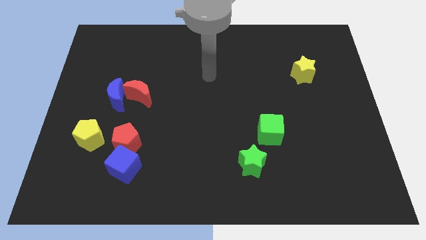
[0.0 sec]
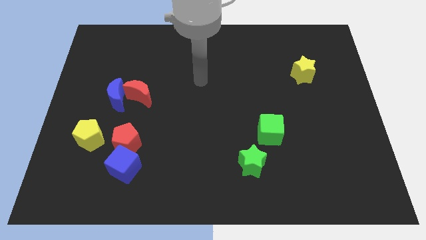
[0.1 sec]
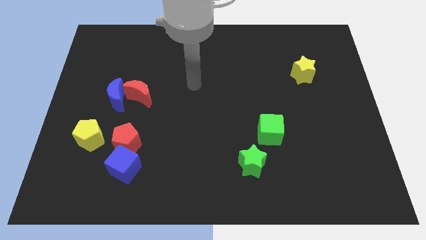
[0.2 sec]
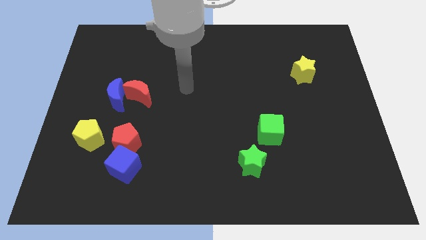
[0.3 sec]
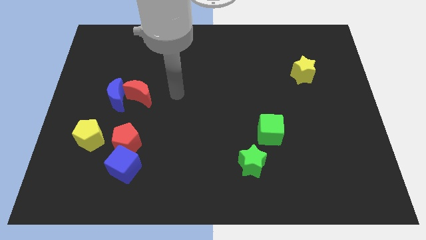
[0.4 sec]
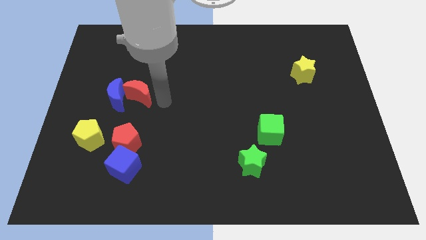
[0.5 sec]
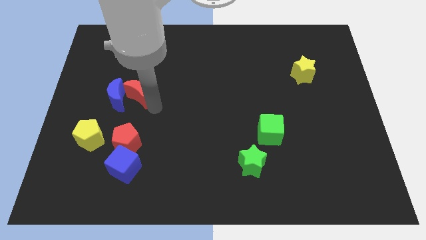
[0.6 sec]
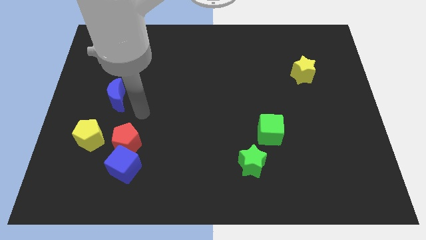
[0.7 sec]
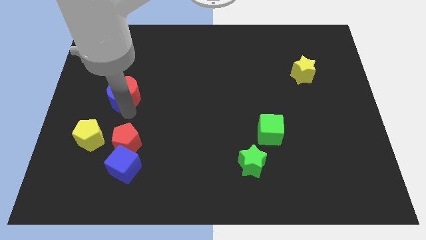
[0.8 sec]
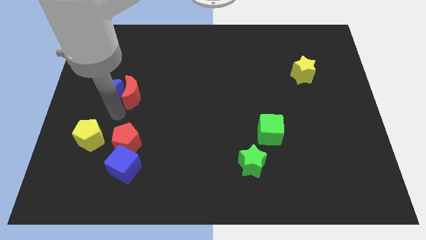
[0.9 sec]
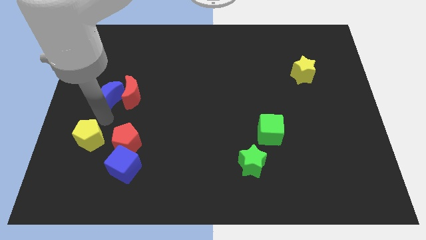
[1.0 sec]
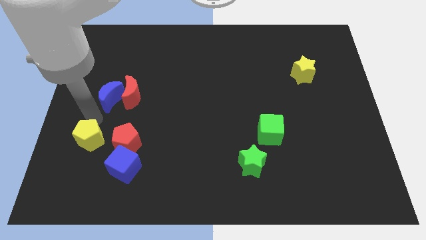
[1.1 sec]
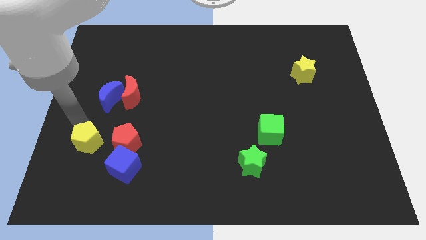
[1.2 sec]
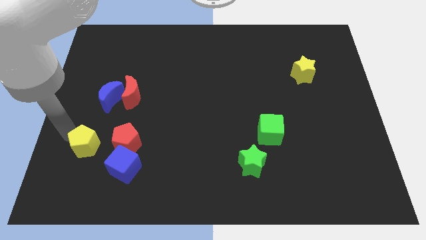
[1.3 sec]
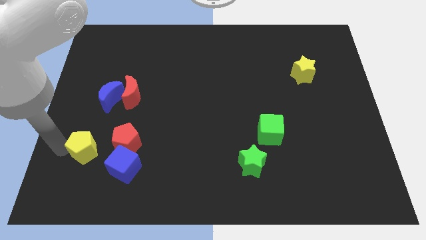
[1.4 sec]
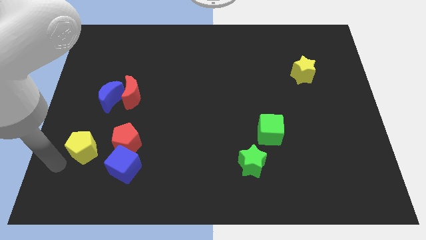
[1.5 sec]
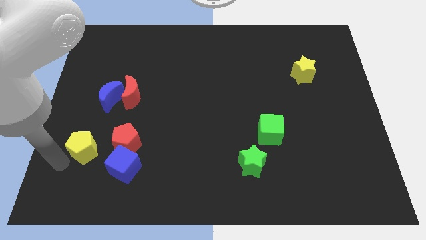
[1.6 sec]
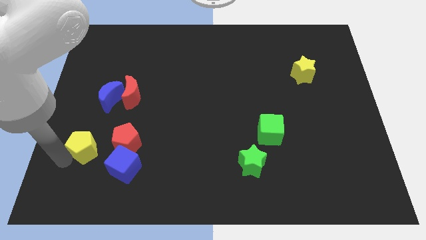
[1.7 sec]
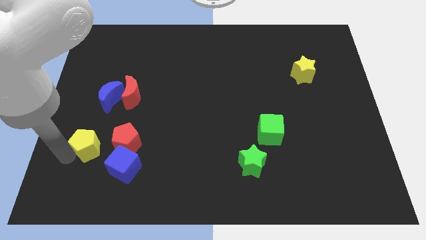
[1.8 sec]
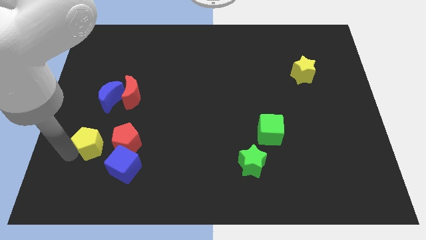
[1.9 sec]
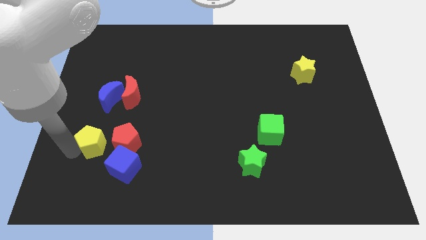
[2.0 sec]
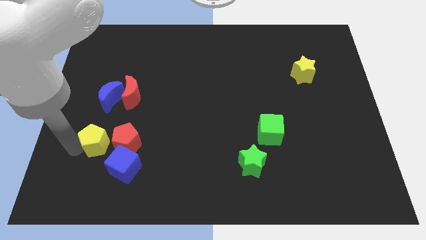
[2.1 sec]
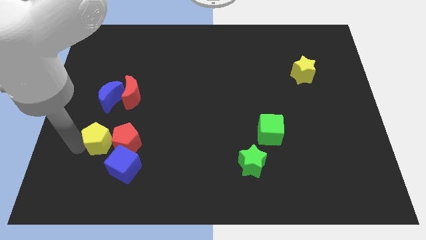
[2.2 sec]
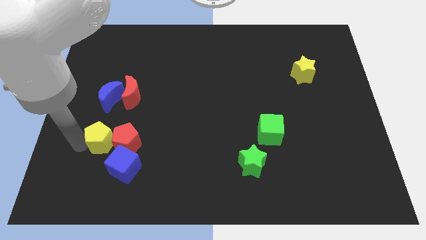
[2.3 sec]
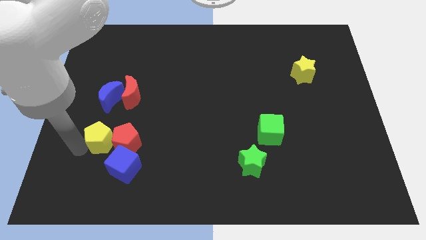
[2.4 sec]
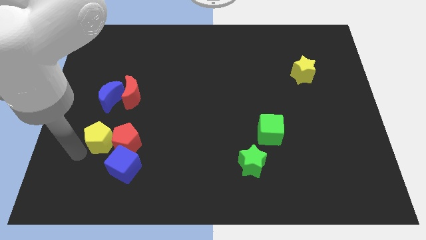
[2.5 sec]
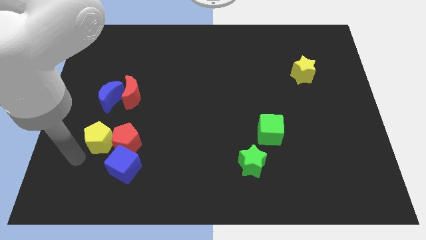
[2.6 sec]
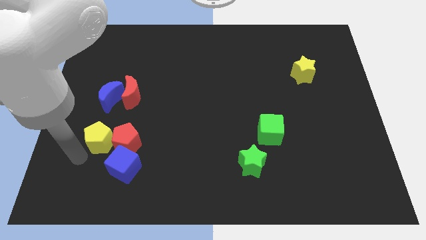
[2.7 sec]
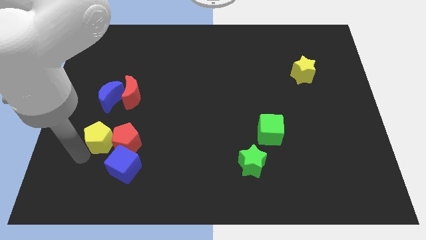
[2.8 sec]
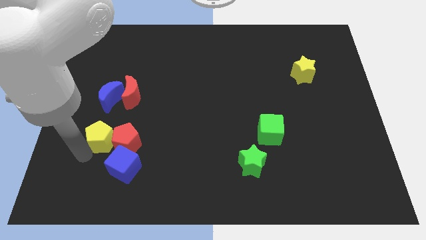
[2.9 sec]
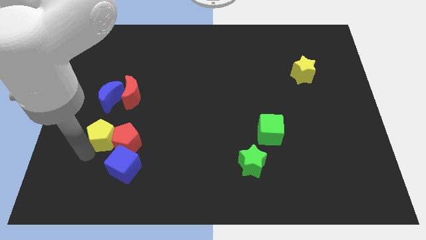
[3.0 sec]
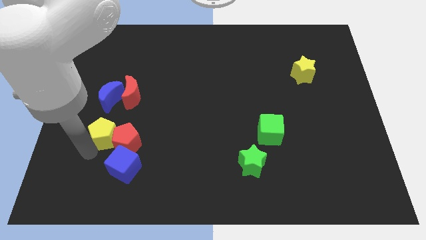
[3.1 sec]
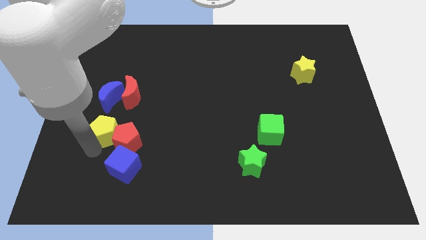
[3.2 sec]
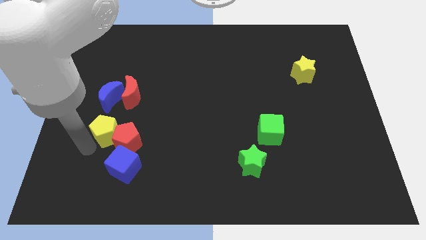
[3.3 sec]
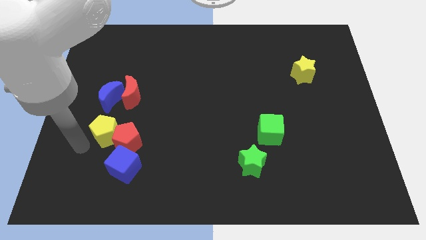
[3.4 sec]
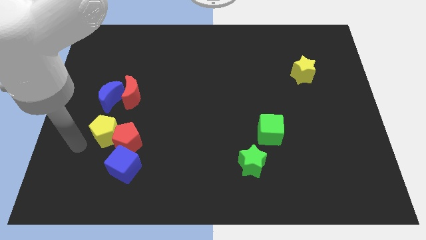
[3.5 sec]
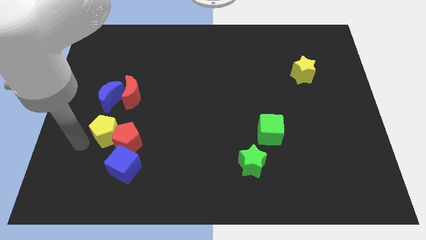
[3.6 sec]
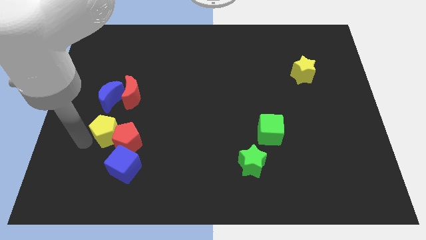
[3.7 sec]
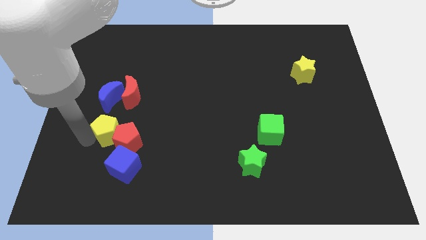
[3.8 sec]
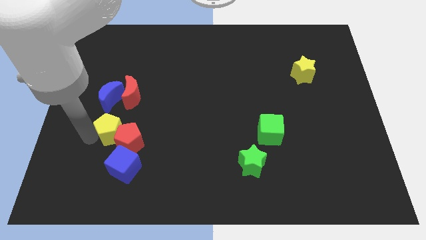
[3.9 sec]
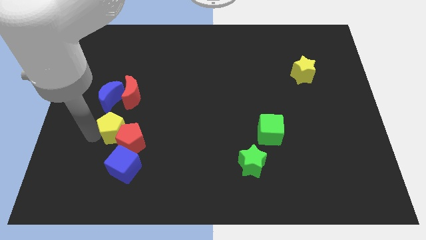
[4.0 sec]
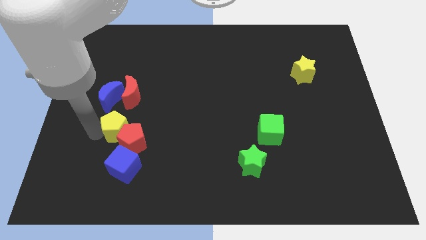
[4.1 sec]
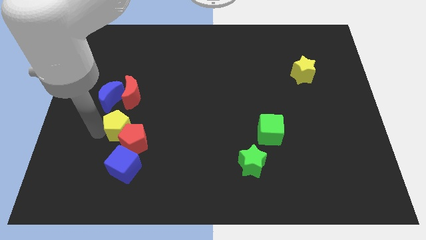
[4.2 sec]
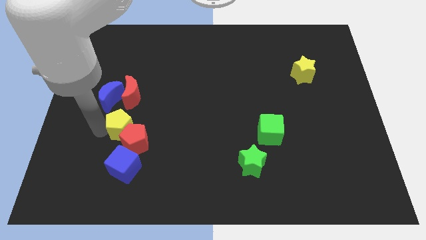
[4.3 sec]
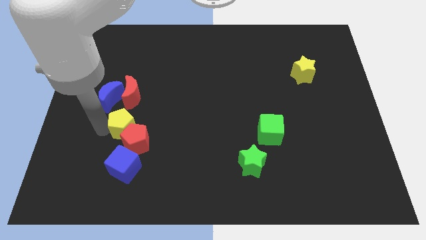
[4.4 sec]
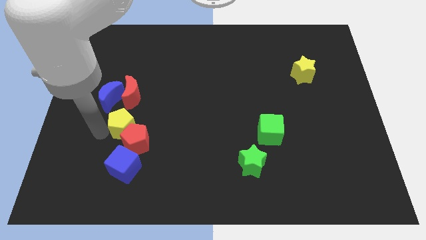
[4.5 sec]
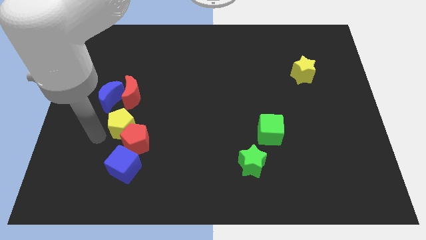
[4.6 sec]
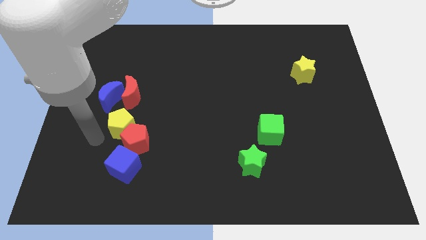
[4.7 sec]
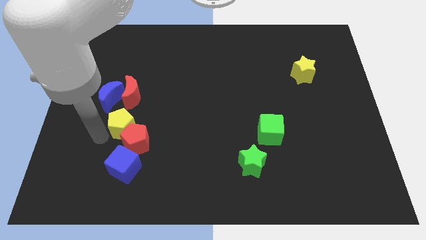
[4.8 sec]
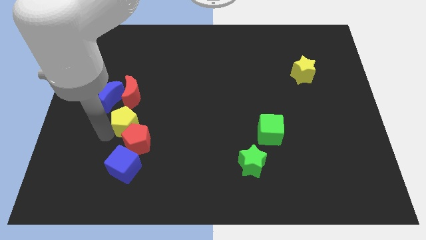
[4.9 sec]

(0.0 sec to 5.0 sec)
slightly move the yellow pentagon diagonally upwards and right

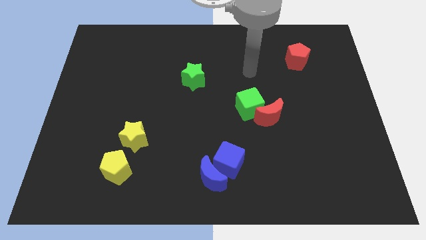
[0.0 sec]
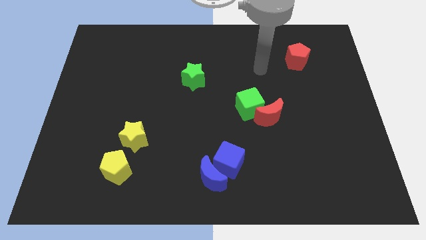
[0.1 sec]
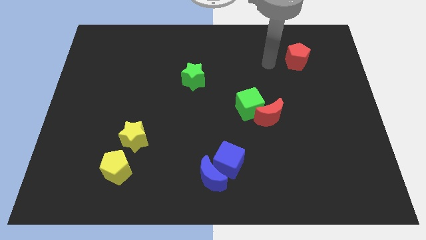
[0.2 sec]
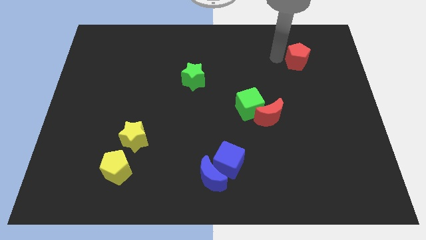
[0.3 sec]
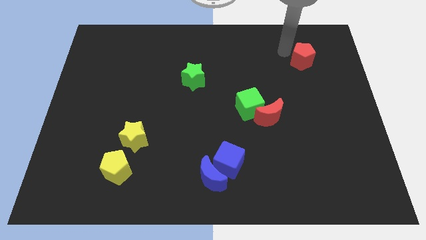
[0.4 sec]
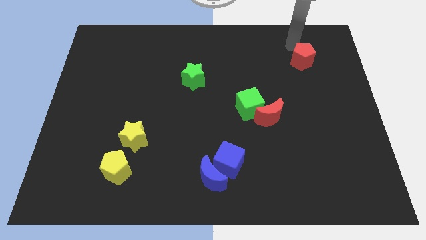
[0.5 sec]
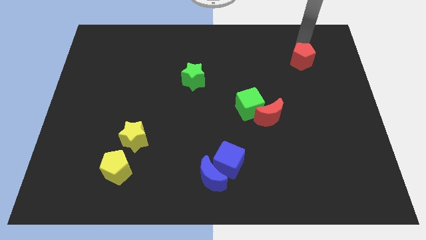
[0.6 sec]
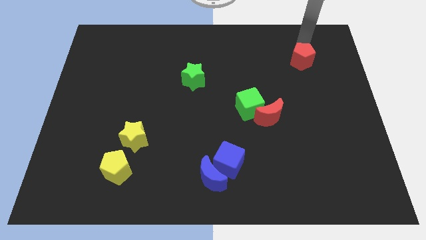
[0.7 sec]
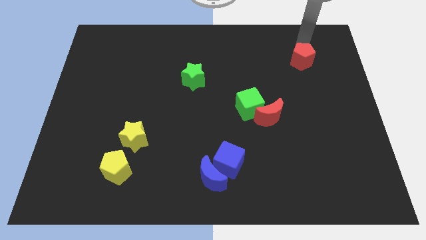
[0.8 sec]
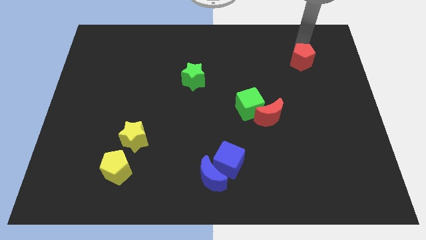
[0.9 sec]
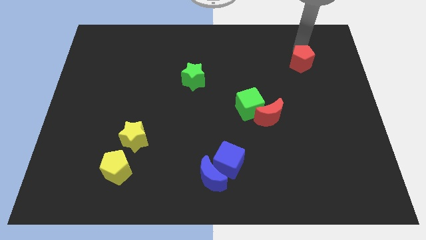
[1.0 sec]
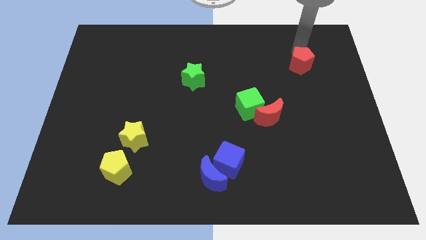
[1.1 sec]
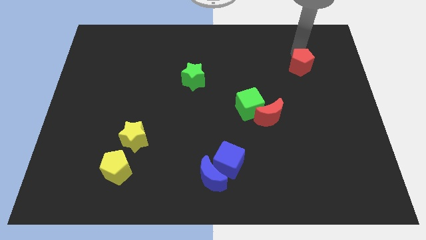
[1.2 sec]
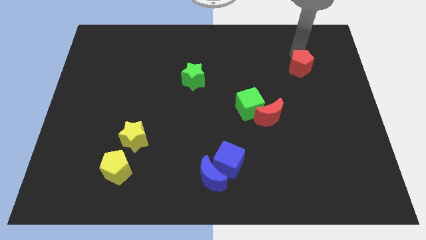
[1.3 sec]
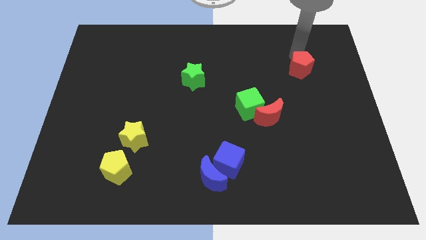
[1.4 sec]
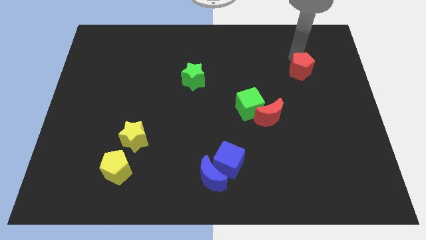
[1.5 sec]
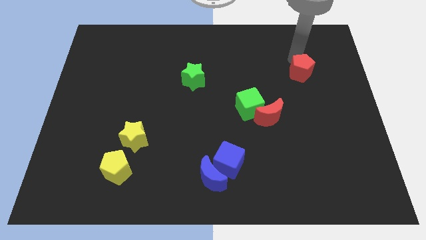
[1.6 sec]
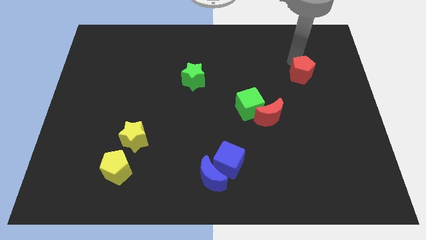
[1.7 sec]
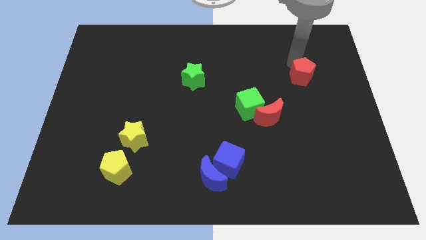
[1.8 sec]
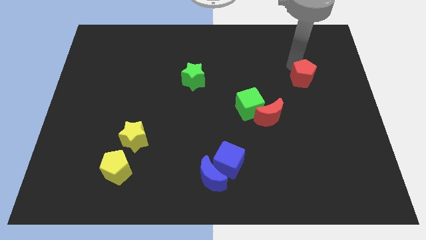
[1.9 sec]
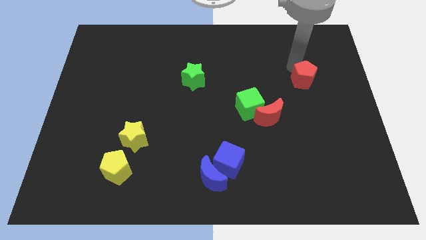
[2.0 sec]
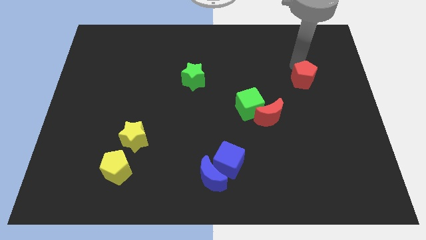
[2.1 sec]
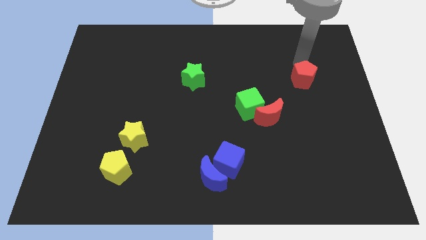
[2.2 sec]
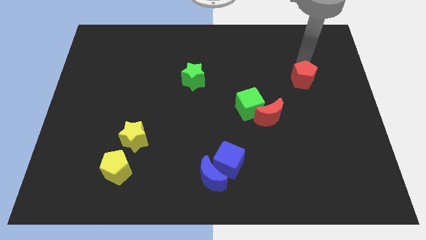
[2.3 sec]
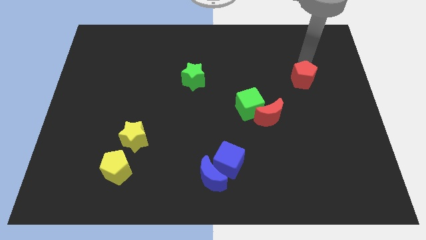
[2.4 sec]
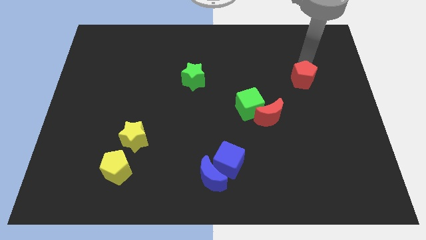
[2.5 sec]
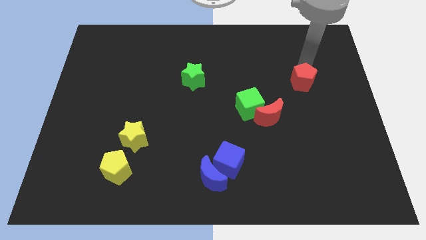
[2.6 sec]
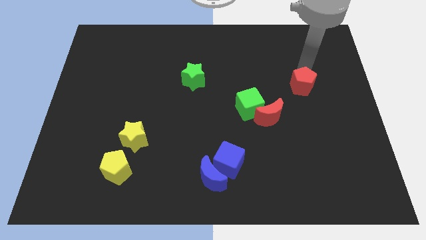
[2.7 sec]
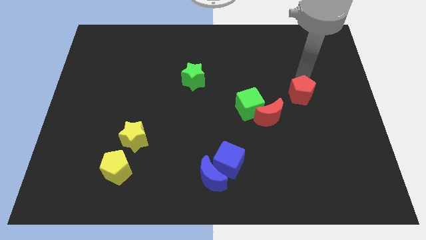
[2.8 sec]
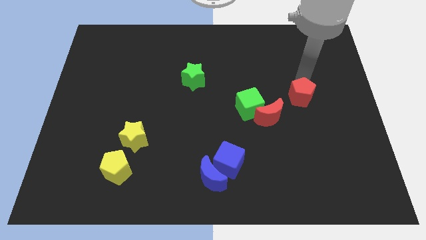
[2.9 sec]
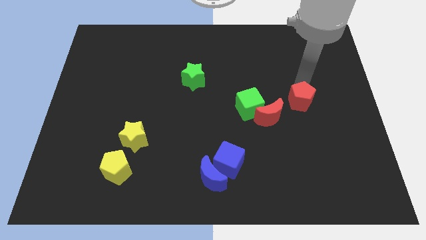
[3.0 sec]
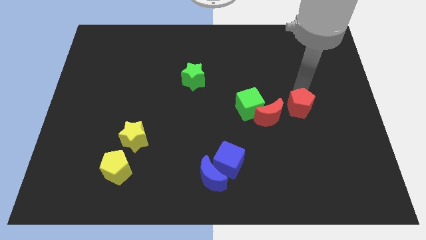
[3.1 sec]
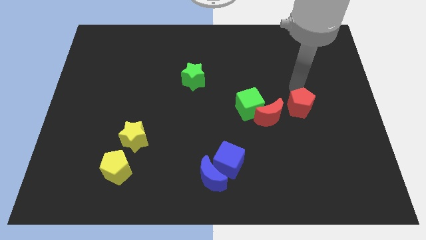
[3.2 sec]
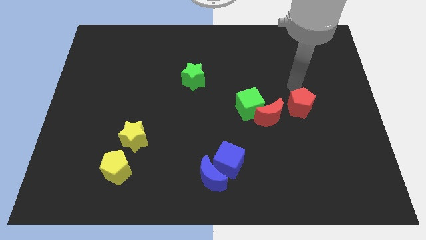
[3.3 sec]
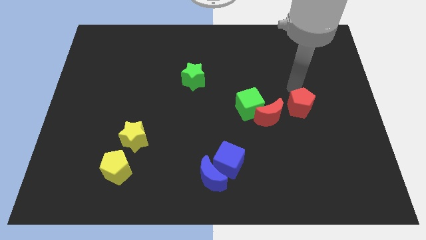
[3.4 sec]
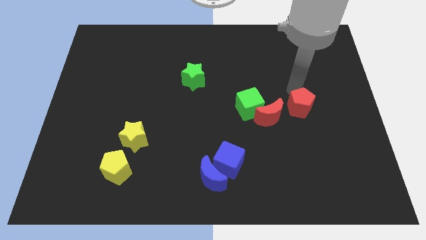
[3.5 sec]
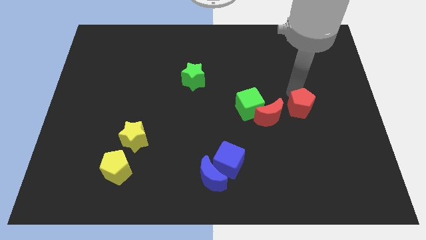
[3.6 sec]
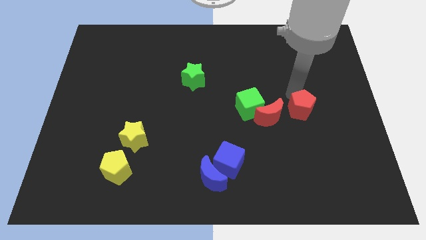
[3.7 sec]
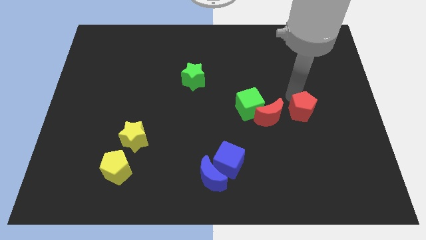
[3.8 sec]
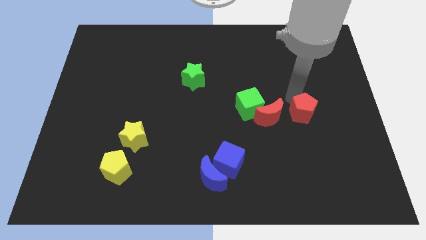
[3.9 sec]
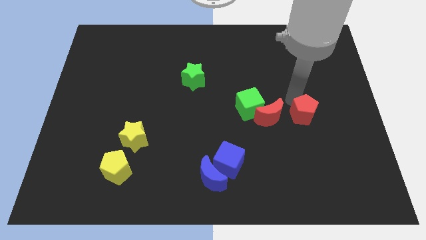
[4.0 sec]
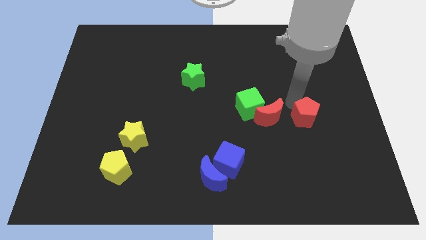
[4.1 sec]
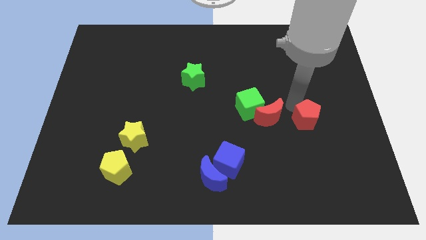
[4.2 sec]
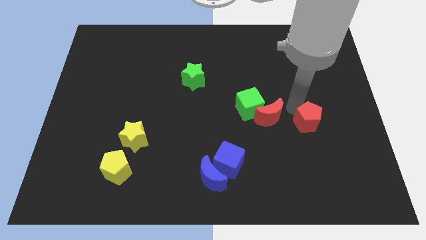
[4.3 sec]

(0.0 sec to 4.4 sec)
push the red pentagon down
